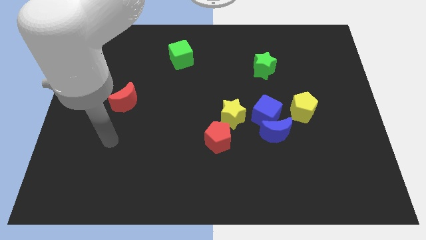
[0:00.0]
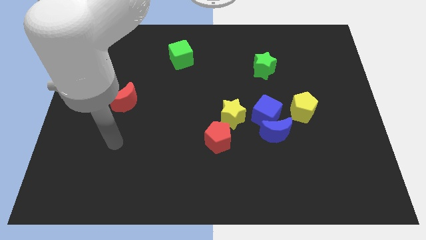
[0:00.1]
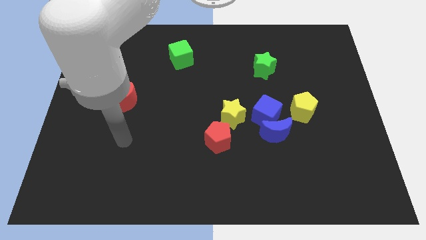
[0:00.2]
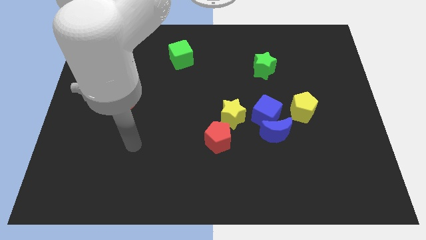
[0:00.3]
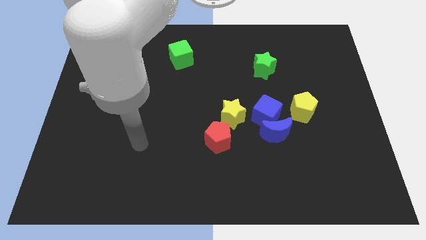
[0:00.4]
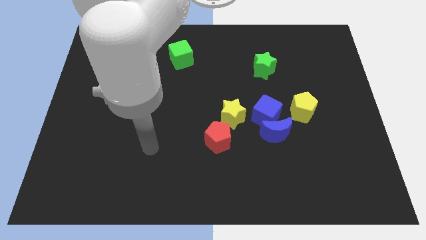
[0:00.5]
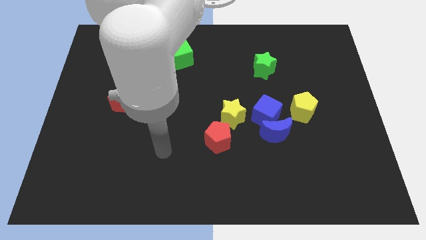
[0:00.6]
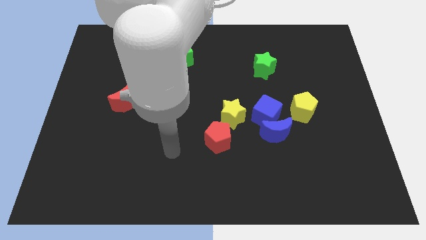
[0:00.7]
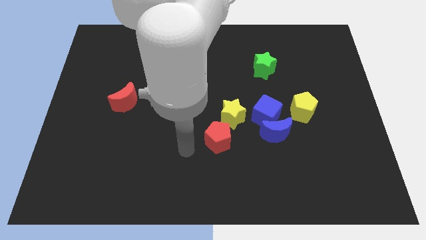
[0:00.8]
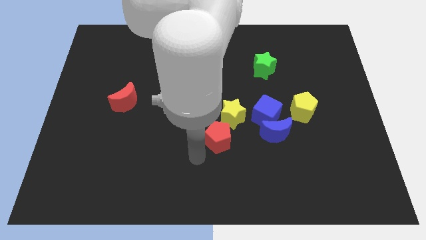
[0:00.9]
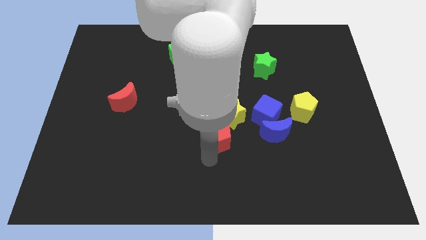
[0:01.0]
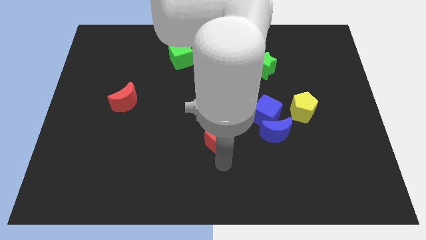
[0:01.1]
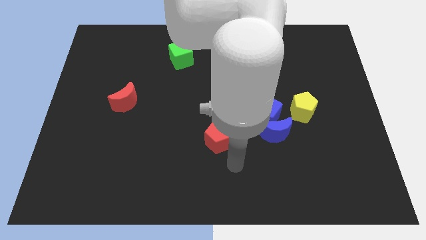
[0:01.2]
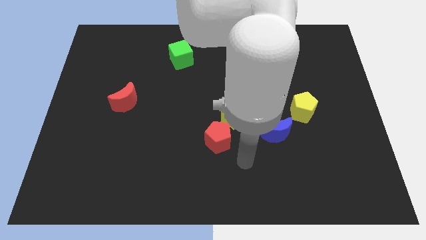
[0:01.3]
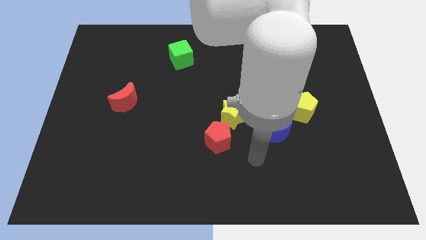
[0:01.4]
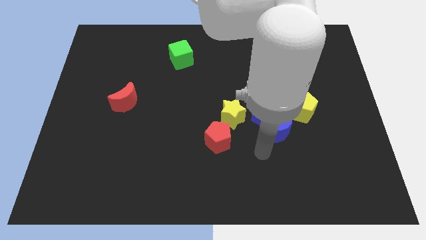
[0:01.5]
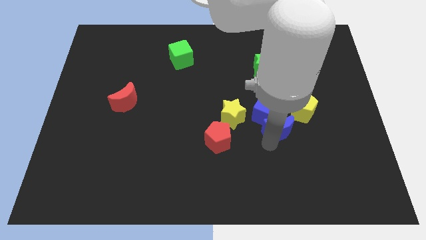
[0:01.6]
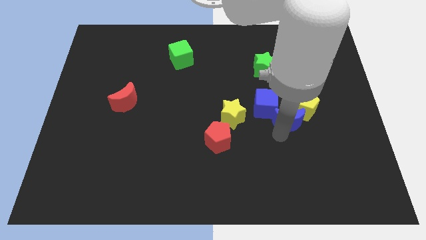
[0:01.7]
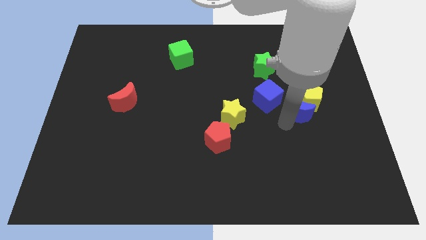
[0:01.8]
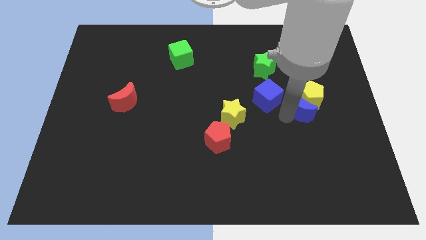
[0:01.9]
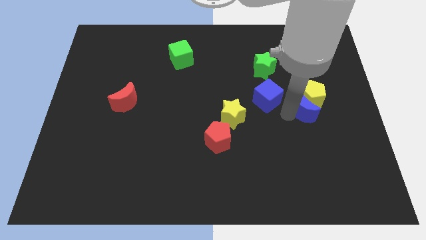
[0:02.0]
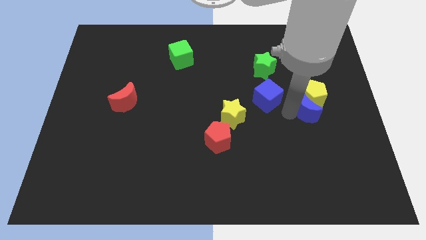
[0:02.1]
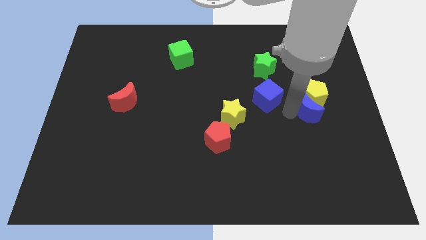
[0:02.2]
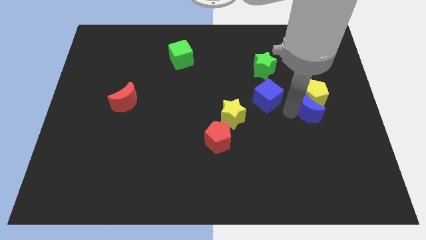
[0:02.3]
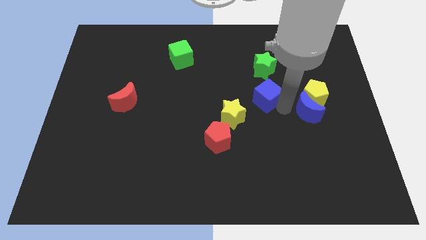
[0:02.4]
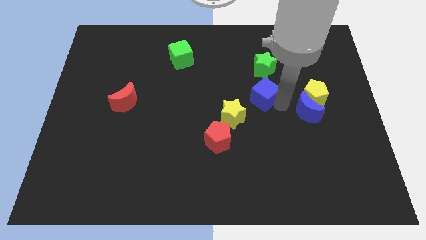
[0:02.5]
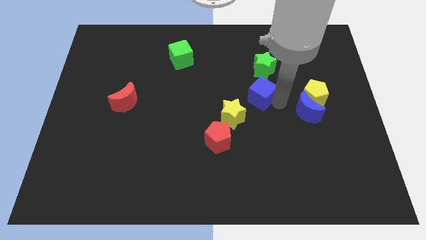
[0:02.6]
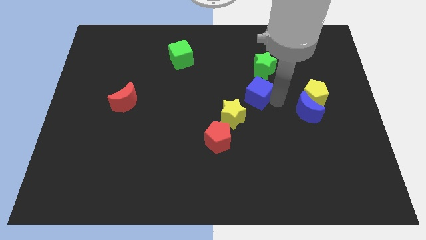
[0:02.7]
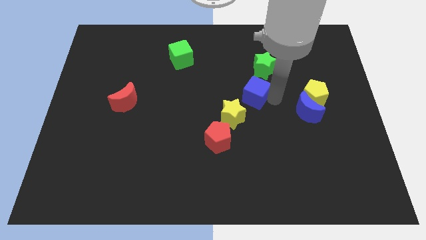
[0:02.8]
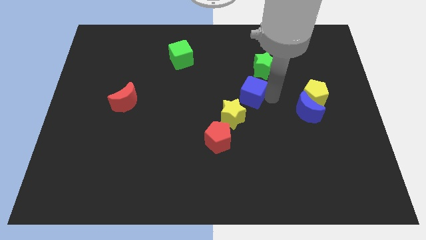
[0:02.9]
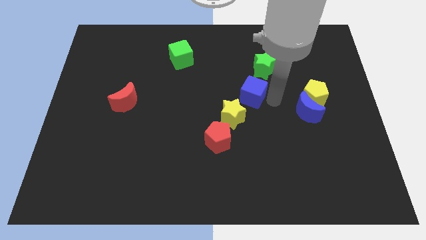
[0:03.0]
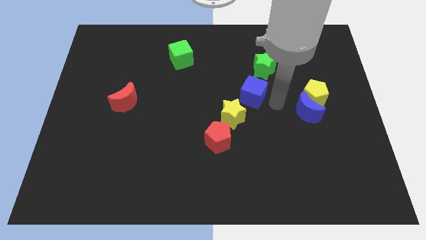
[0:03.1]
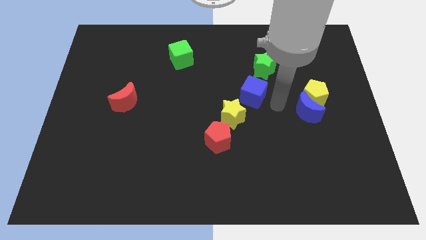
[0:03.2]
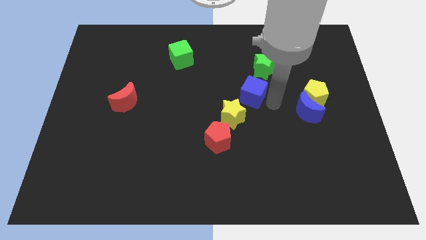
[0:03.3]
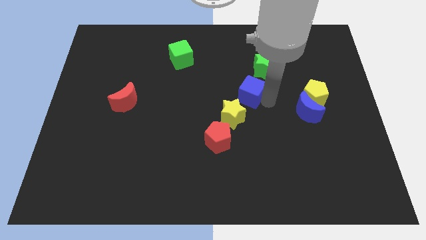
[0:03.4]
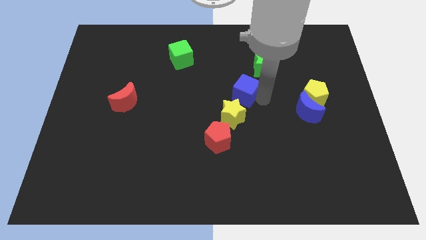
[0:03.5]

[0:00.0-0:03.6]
move the blue cube away from the group of blocks

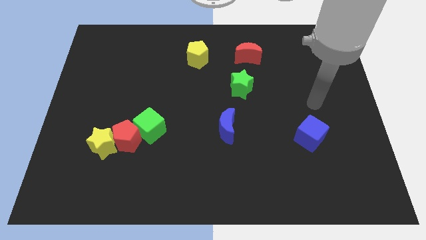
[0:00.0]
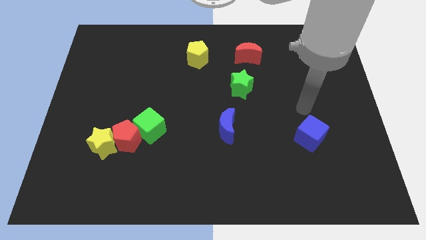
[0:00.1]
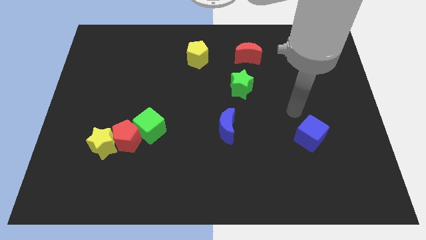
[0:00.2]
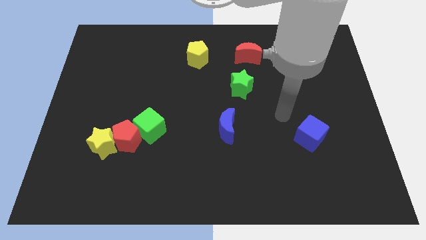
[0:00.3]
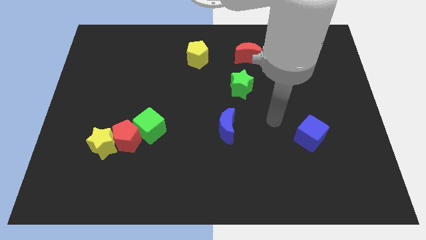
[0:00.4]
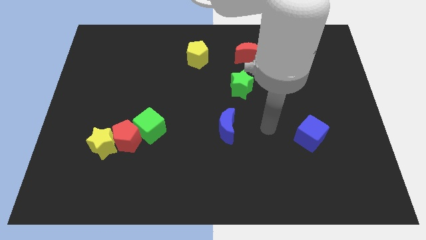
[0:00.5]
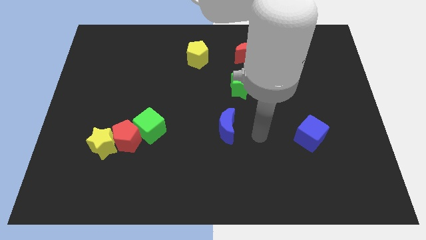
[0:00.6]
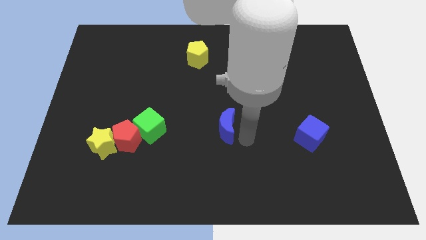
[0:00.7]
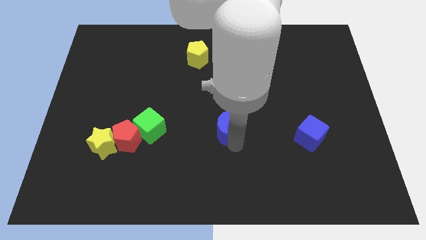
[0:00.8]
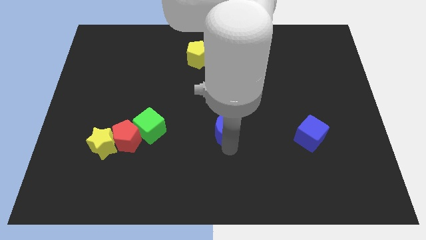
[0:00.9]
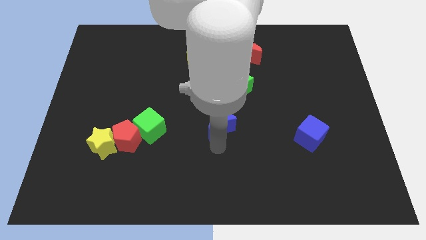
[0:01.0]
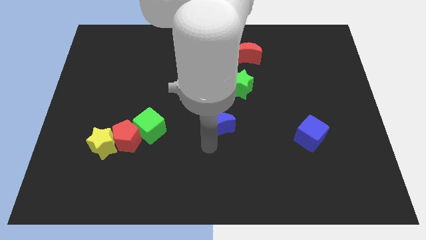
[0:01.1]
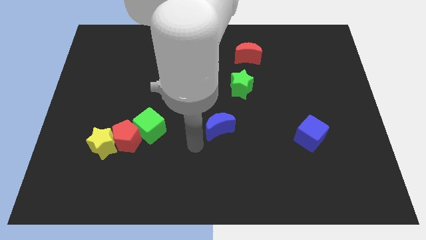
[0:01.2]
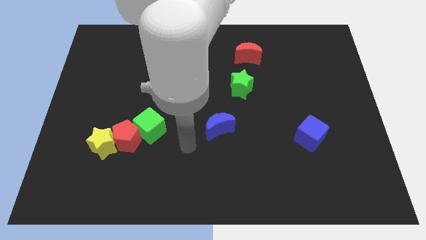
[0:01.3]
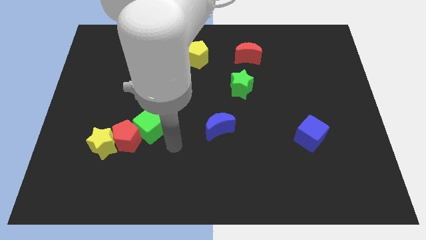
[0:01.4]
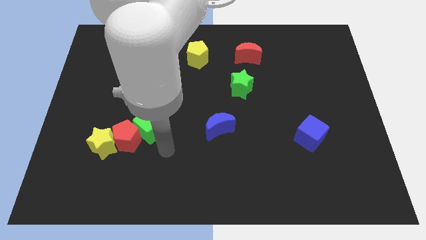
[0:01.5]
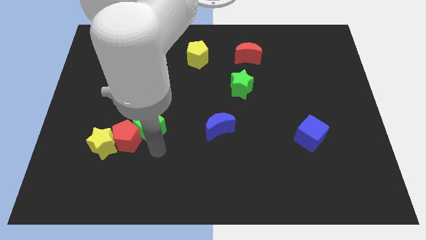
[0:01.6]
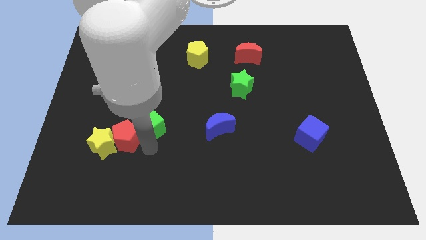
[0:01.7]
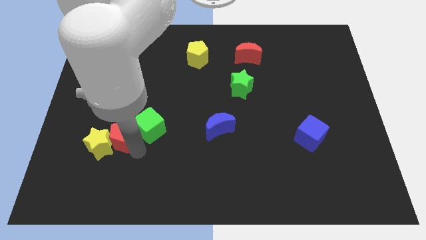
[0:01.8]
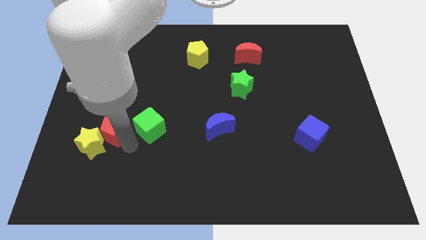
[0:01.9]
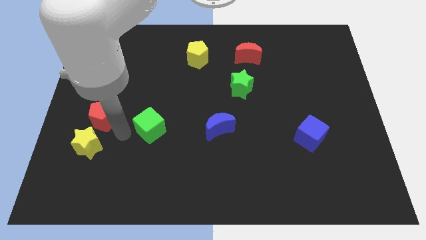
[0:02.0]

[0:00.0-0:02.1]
pull the green cube apart from the red pentagon

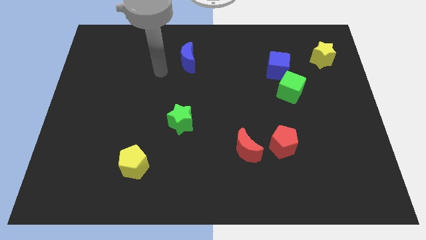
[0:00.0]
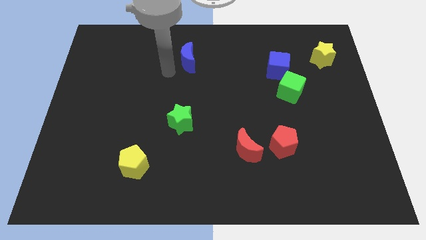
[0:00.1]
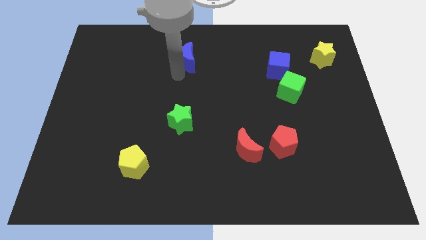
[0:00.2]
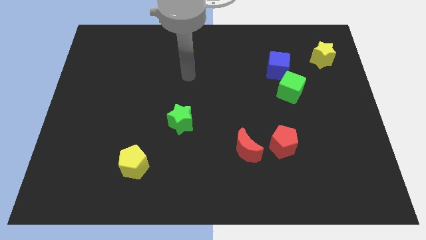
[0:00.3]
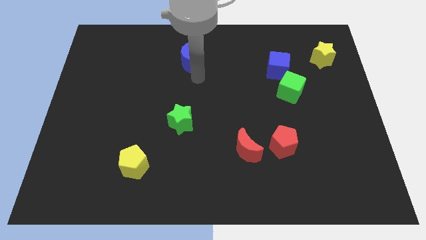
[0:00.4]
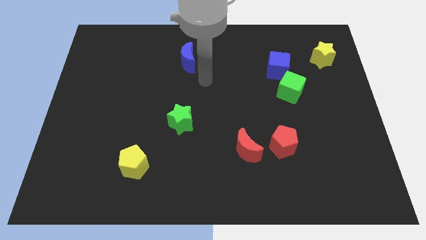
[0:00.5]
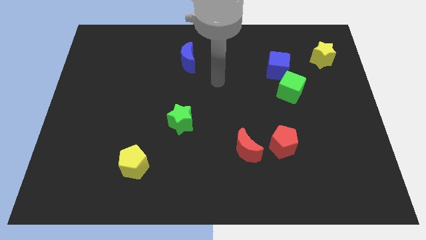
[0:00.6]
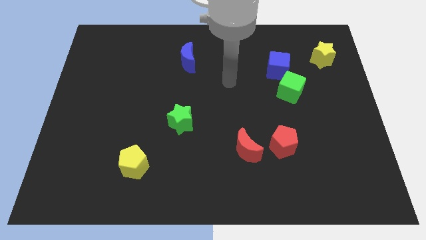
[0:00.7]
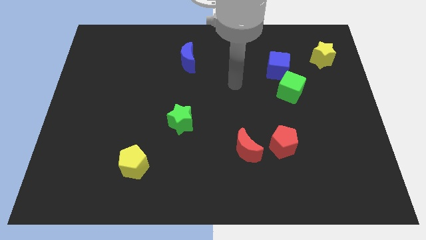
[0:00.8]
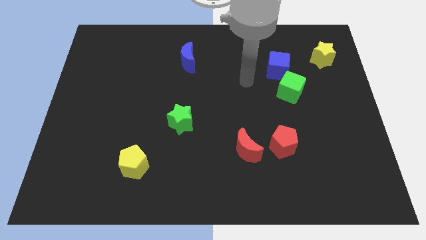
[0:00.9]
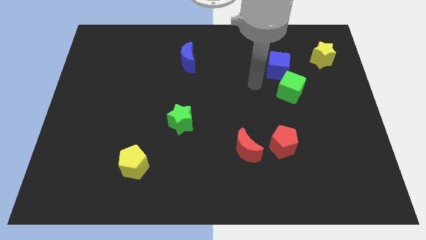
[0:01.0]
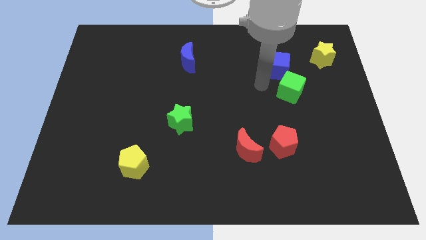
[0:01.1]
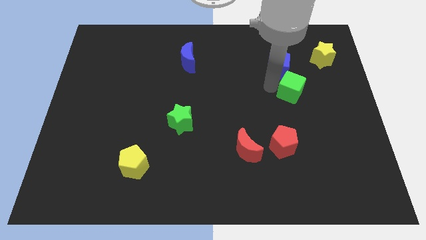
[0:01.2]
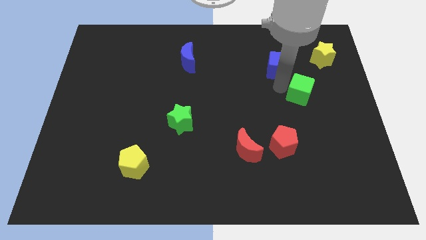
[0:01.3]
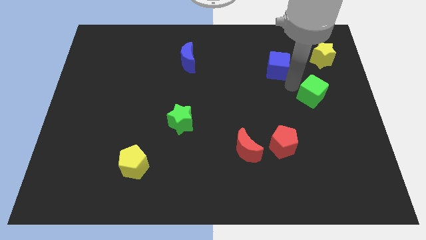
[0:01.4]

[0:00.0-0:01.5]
move the blue cube away from the green cube

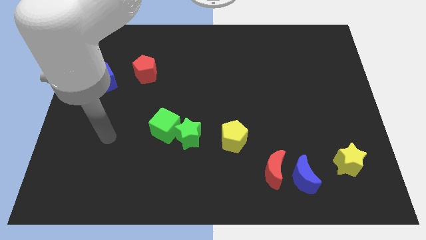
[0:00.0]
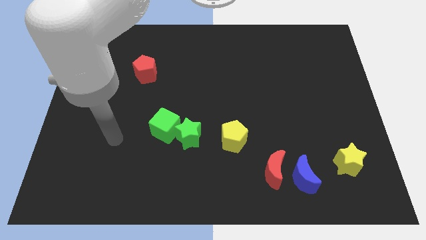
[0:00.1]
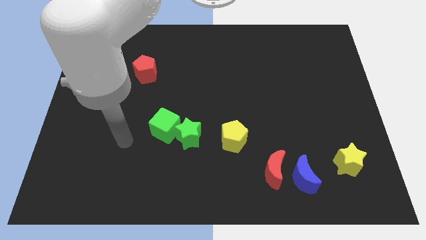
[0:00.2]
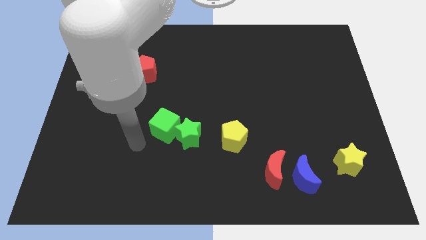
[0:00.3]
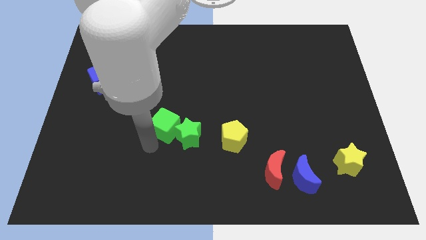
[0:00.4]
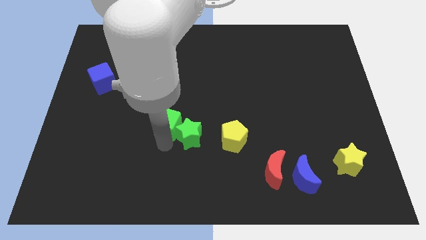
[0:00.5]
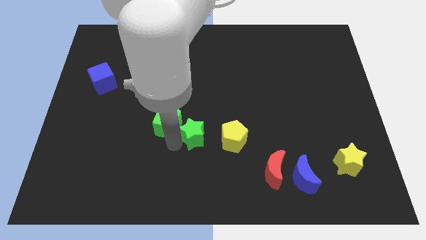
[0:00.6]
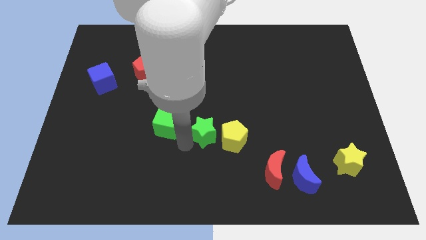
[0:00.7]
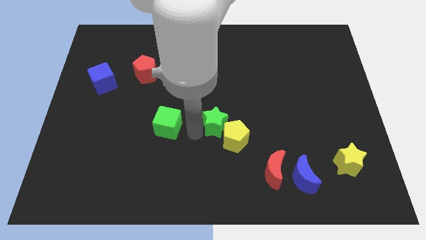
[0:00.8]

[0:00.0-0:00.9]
pull the green cube apart from the green star

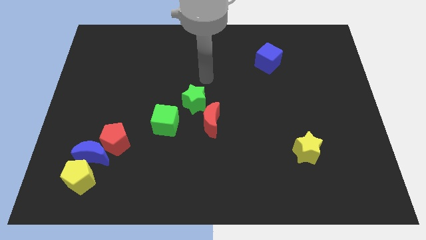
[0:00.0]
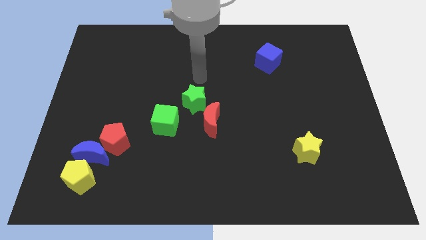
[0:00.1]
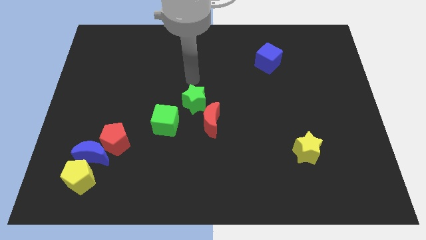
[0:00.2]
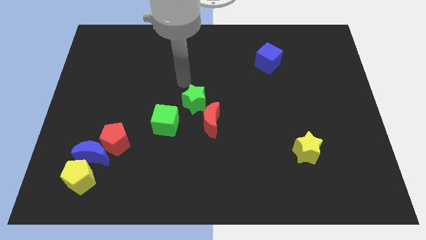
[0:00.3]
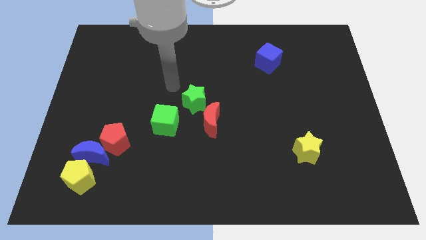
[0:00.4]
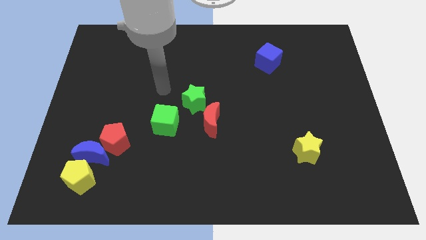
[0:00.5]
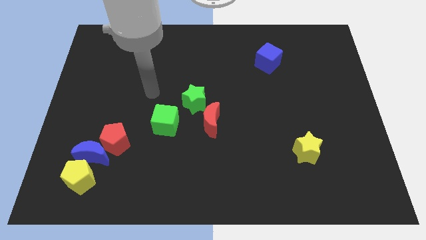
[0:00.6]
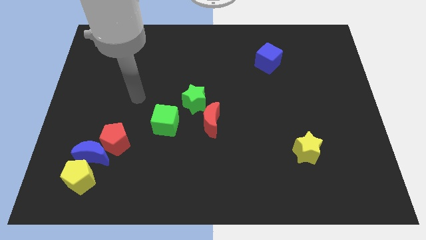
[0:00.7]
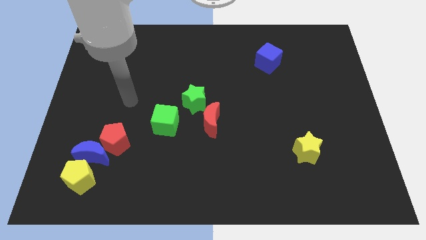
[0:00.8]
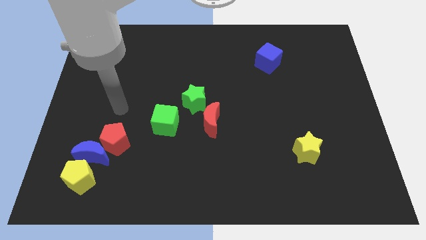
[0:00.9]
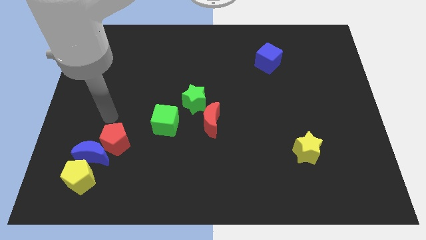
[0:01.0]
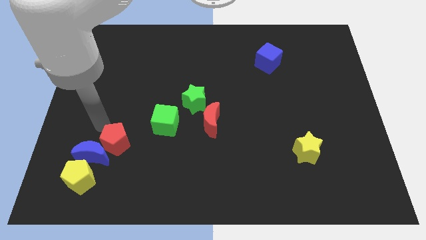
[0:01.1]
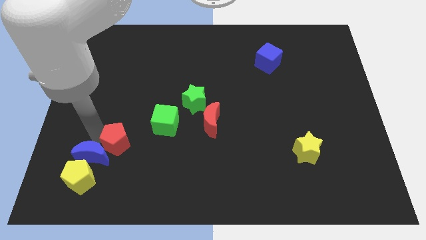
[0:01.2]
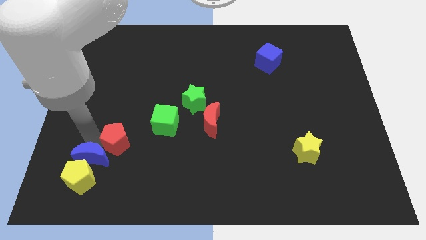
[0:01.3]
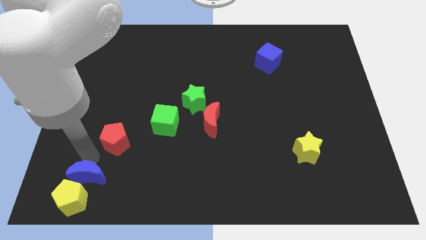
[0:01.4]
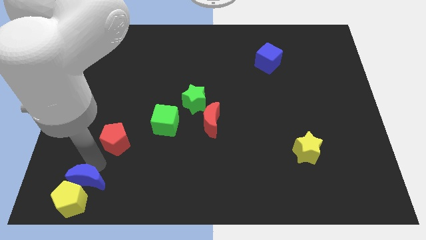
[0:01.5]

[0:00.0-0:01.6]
separate the red pentagon from the blue moon
